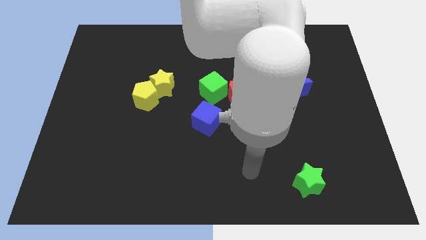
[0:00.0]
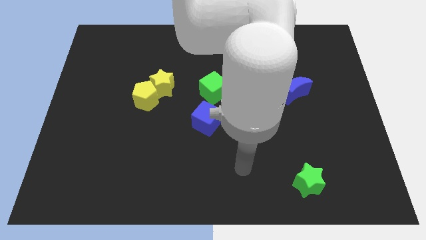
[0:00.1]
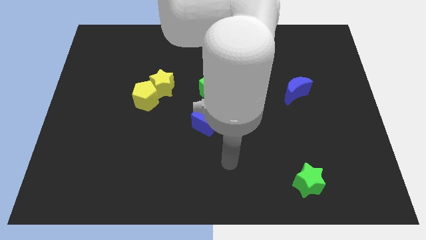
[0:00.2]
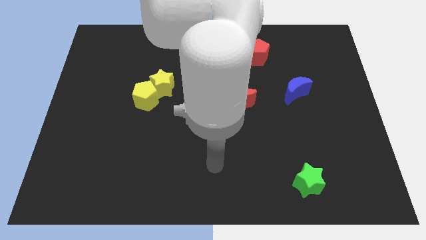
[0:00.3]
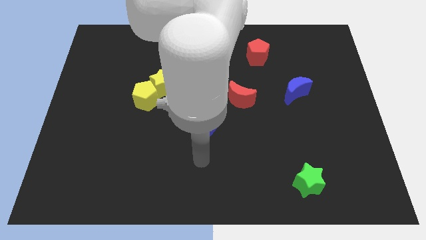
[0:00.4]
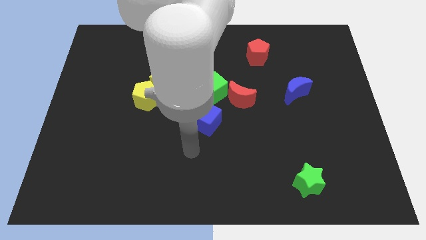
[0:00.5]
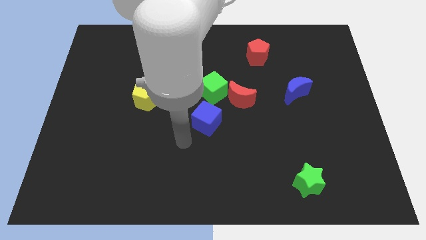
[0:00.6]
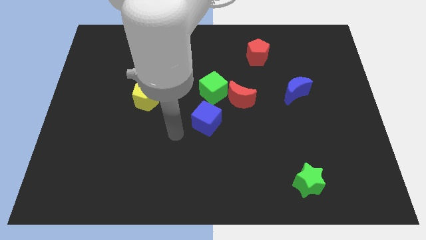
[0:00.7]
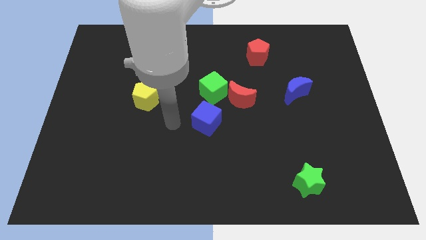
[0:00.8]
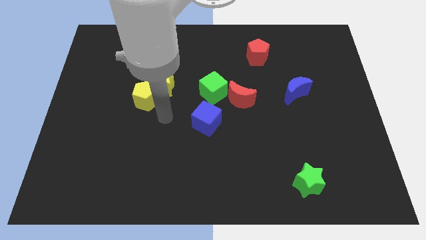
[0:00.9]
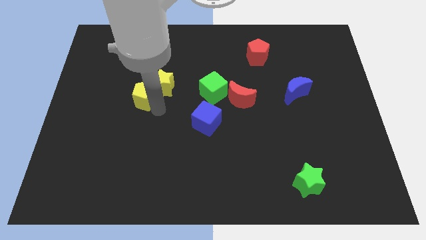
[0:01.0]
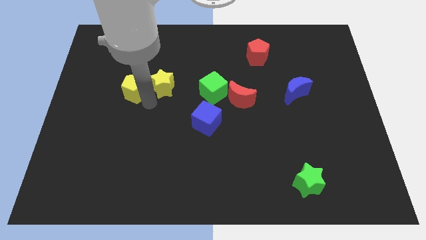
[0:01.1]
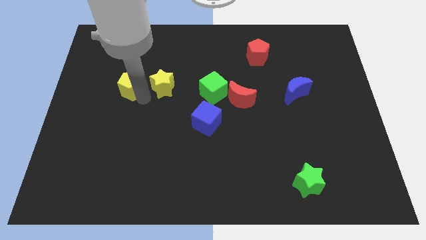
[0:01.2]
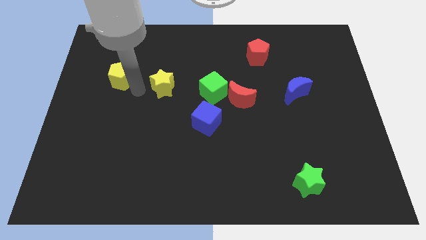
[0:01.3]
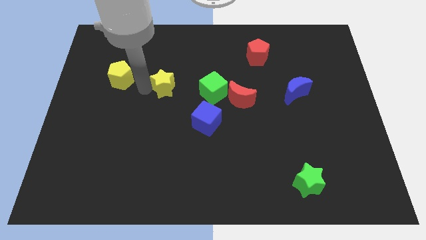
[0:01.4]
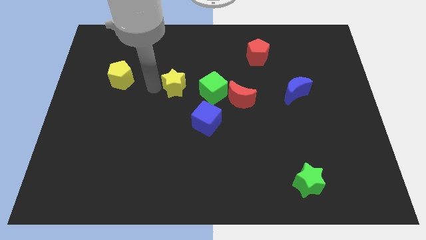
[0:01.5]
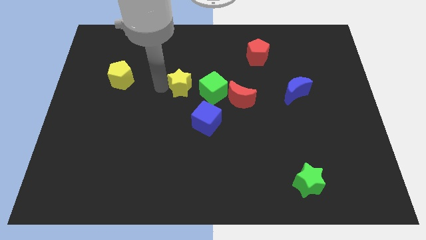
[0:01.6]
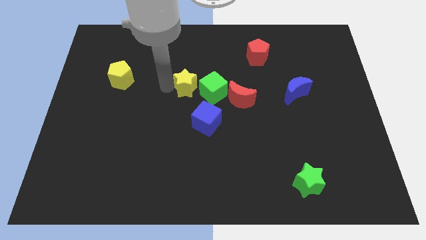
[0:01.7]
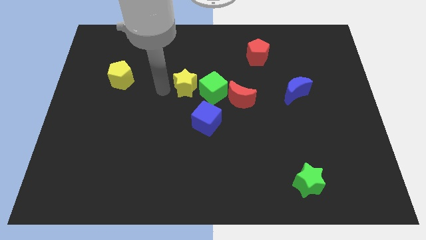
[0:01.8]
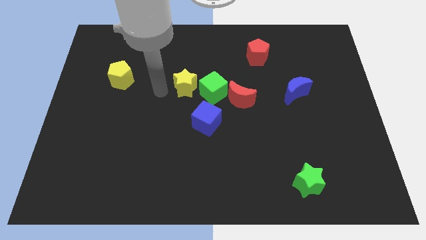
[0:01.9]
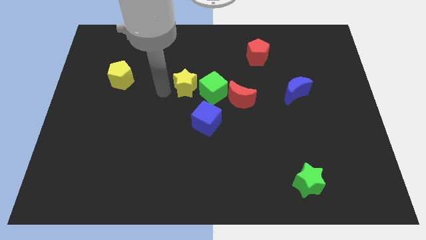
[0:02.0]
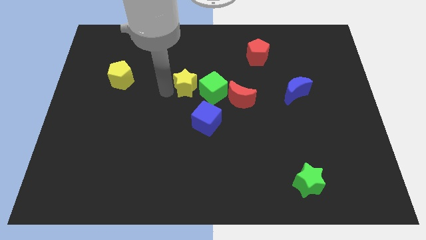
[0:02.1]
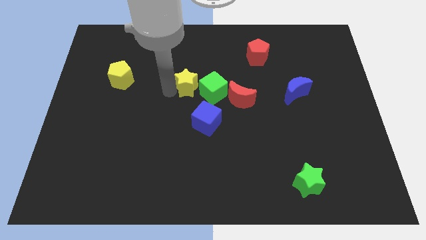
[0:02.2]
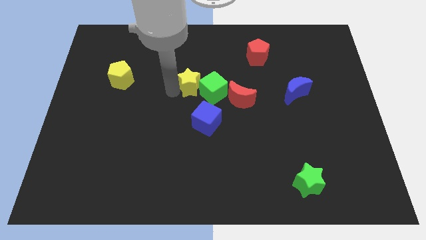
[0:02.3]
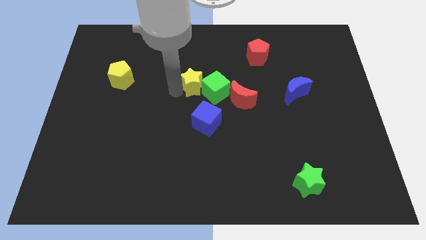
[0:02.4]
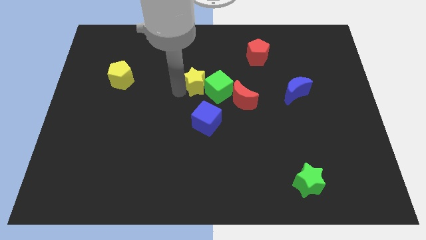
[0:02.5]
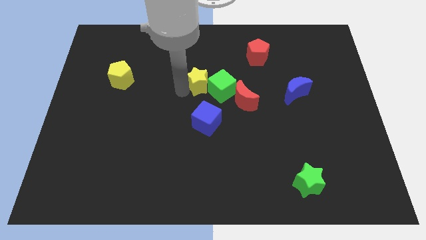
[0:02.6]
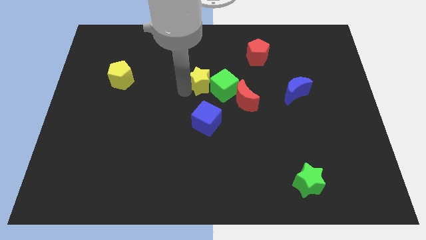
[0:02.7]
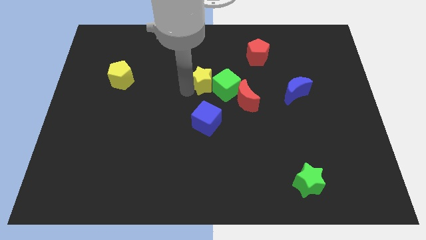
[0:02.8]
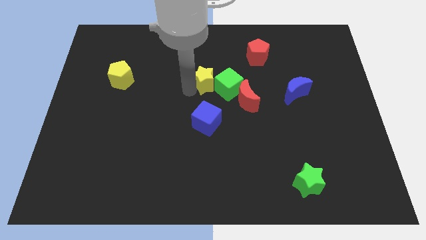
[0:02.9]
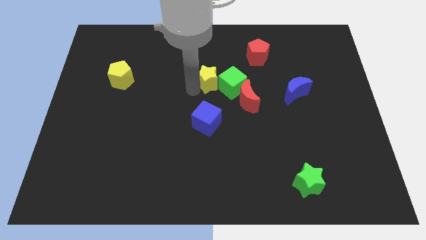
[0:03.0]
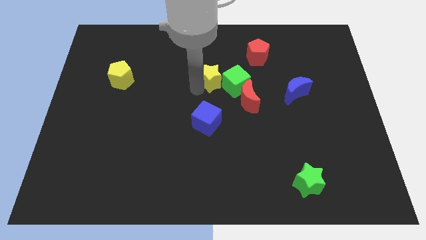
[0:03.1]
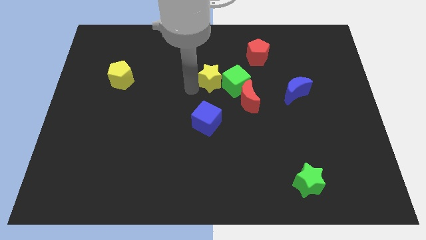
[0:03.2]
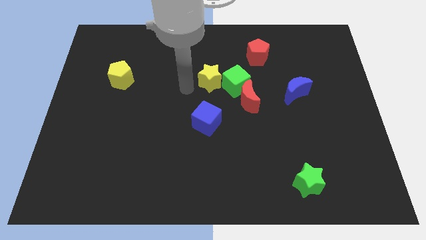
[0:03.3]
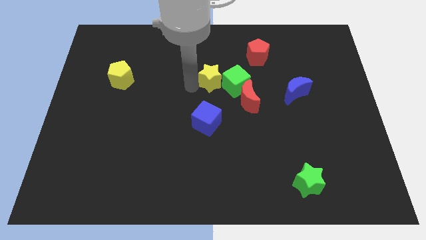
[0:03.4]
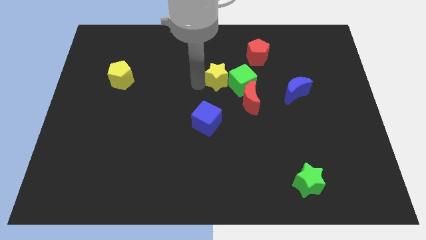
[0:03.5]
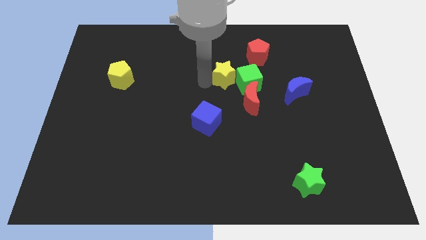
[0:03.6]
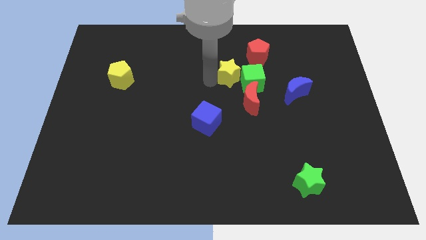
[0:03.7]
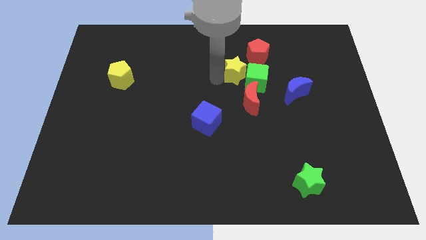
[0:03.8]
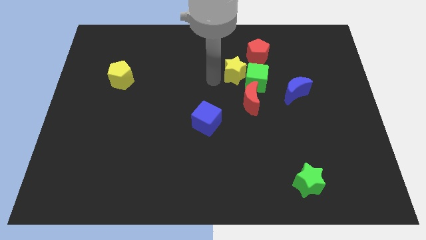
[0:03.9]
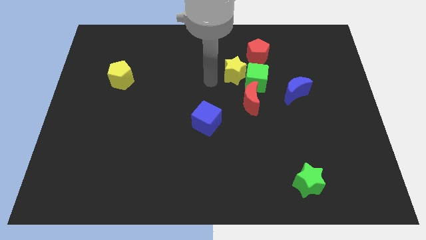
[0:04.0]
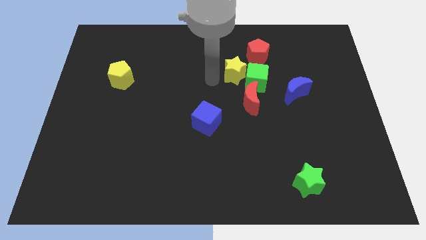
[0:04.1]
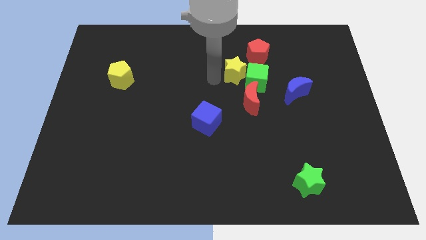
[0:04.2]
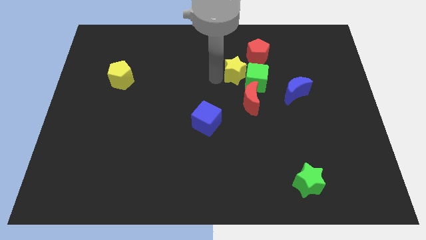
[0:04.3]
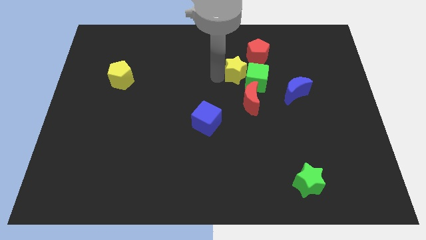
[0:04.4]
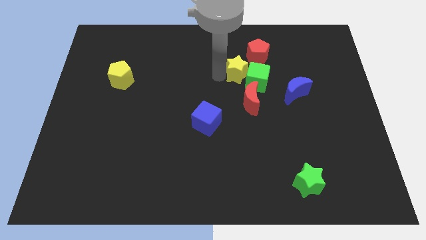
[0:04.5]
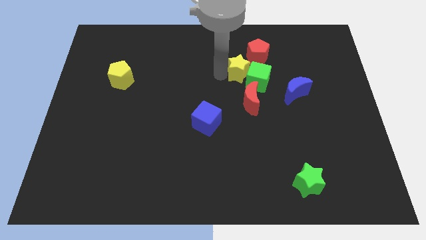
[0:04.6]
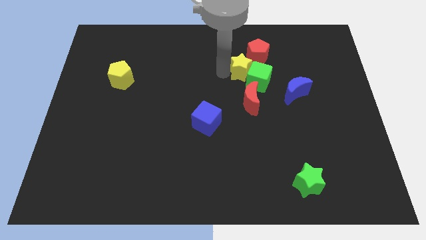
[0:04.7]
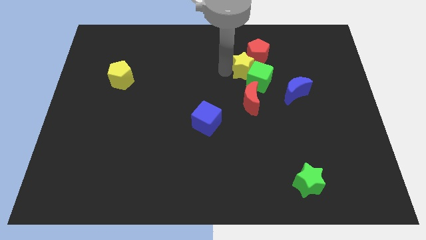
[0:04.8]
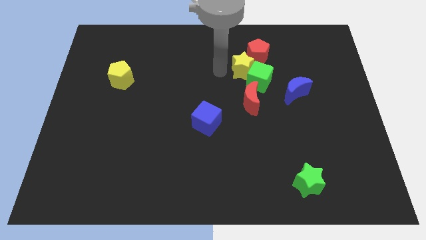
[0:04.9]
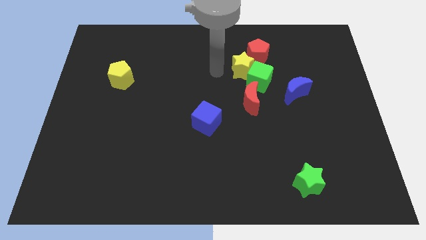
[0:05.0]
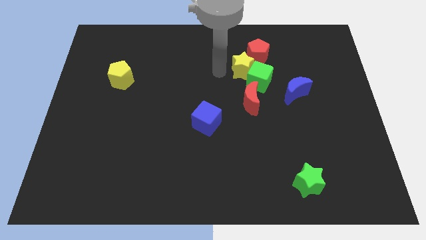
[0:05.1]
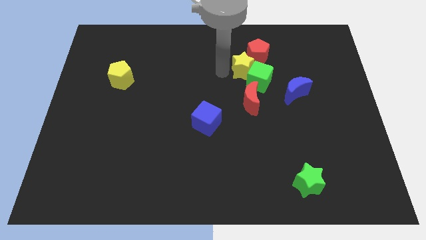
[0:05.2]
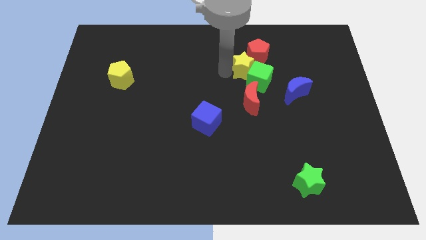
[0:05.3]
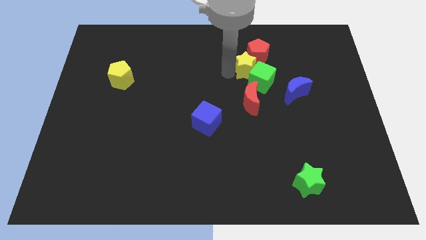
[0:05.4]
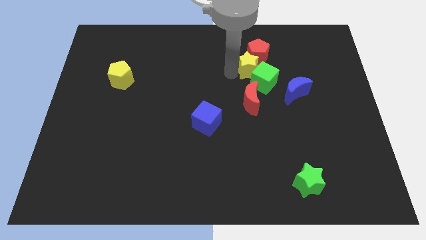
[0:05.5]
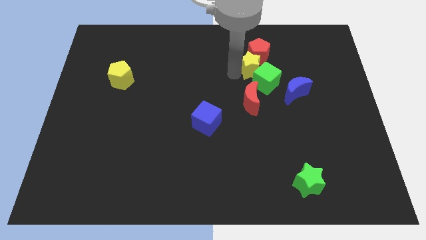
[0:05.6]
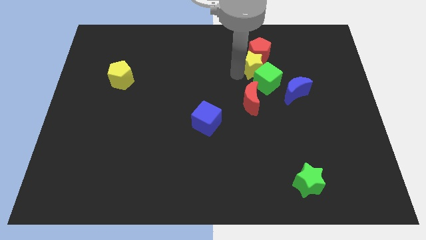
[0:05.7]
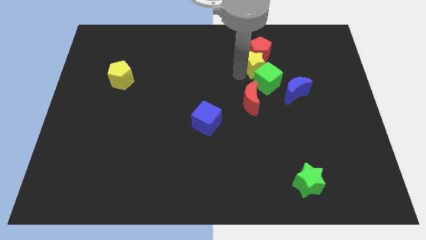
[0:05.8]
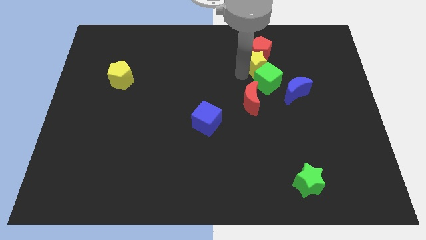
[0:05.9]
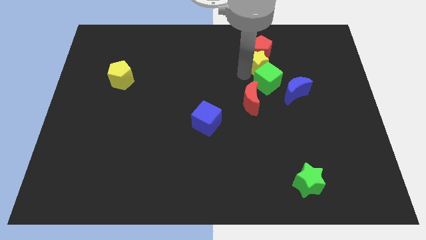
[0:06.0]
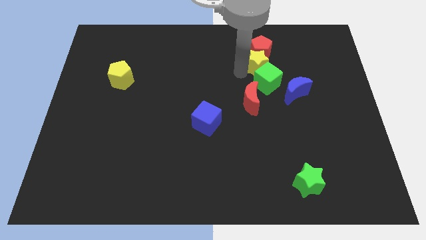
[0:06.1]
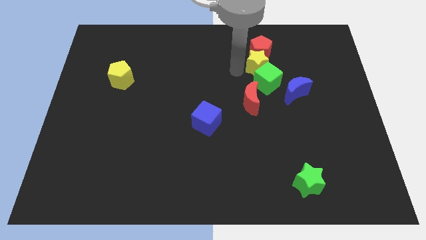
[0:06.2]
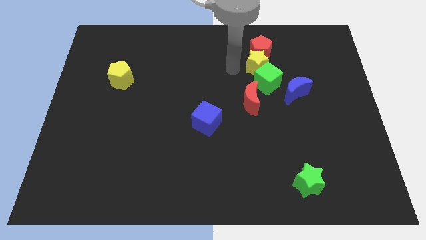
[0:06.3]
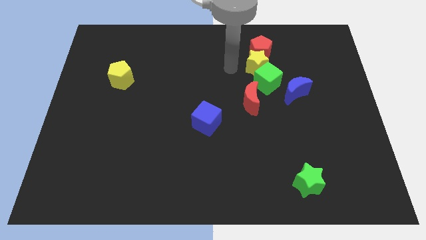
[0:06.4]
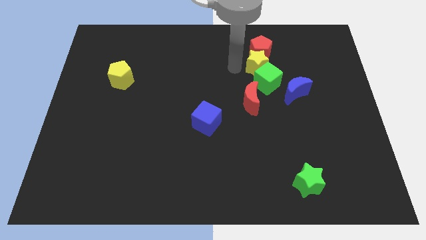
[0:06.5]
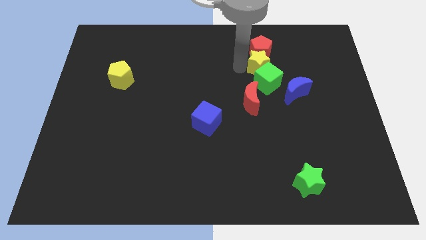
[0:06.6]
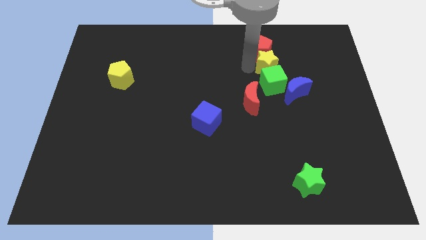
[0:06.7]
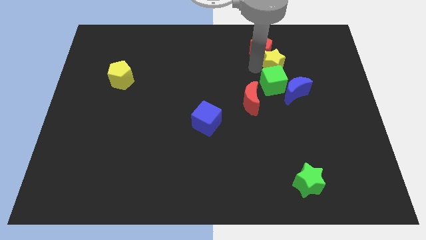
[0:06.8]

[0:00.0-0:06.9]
move the yellow star to the top of the blue moon
